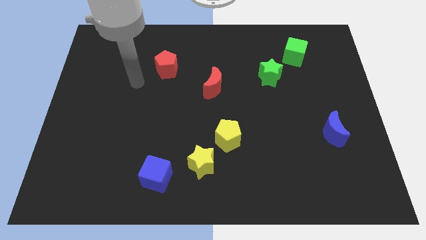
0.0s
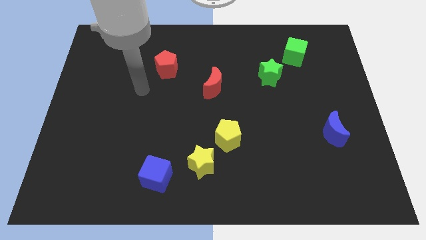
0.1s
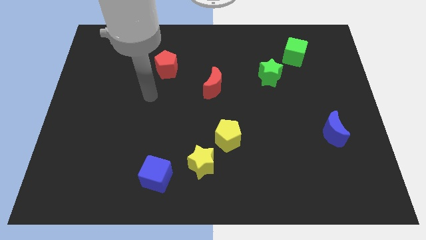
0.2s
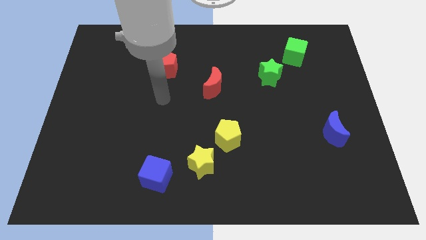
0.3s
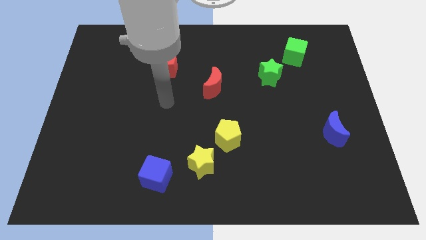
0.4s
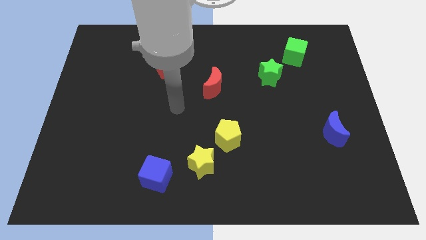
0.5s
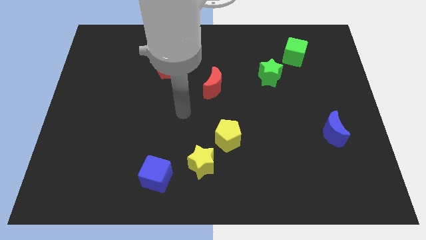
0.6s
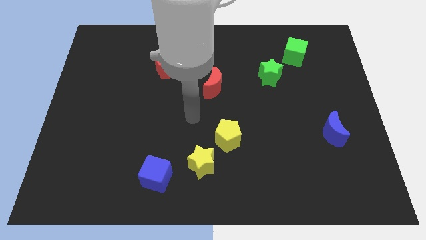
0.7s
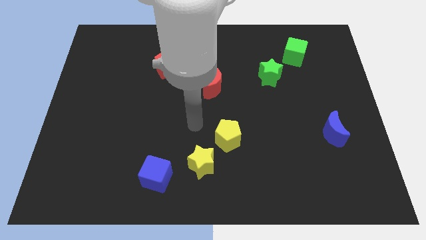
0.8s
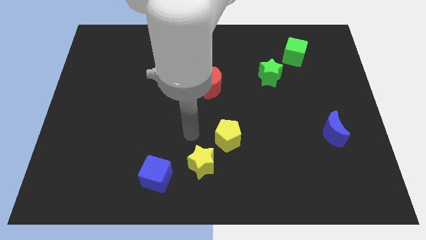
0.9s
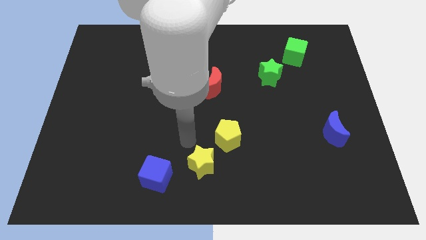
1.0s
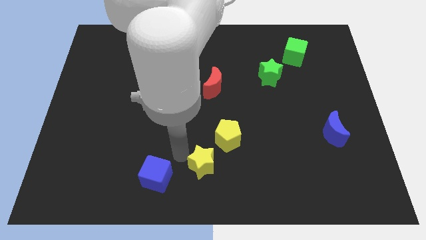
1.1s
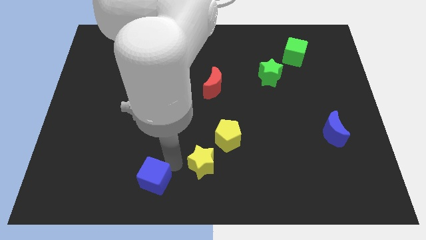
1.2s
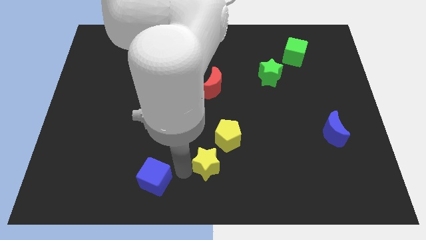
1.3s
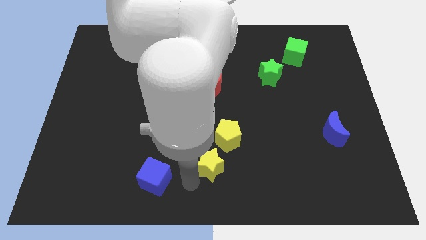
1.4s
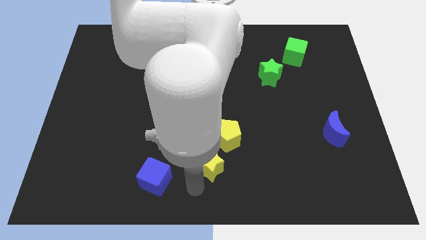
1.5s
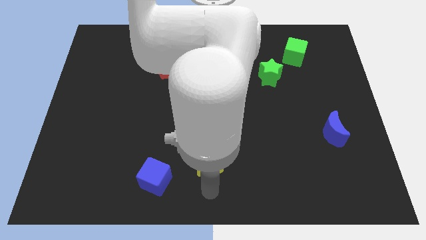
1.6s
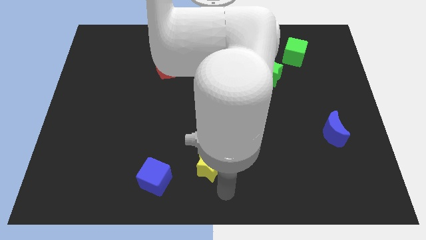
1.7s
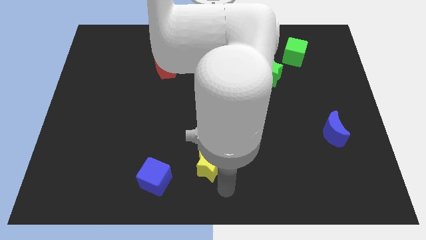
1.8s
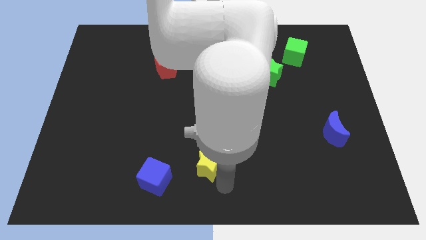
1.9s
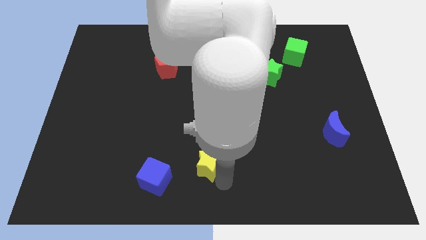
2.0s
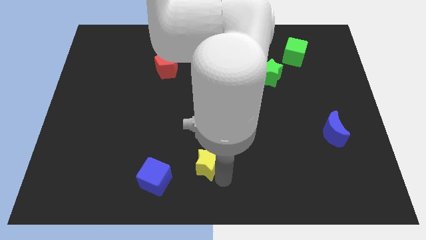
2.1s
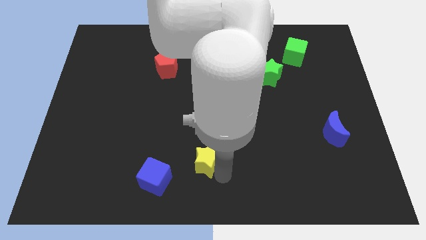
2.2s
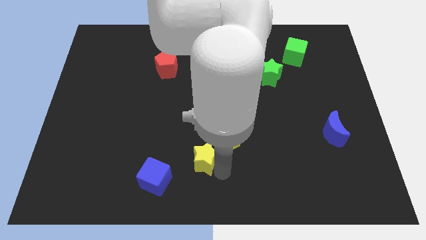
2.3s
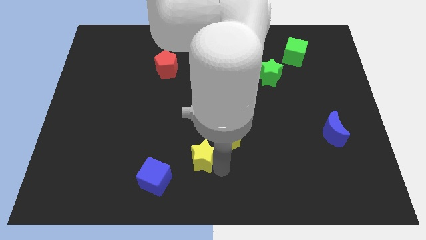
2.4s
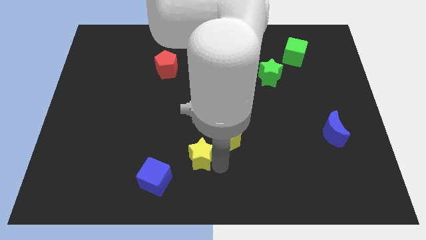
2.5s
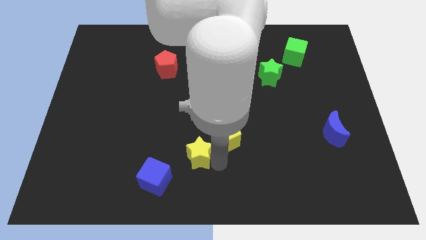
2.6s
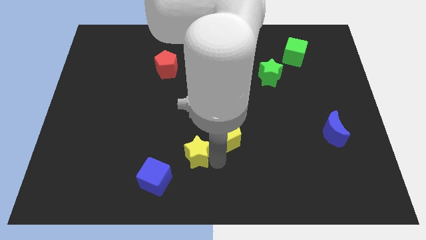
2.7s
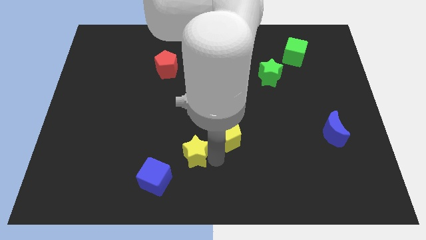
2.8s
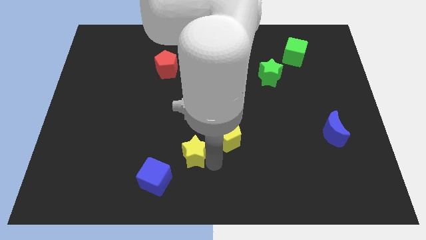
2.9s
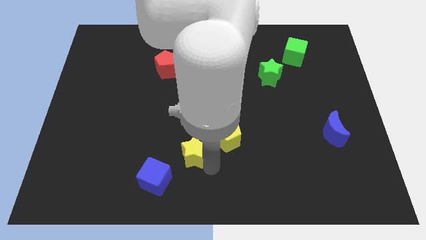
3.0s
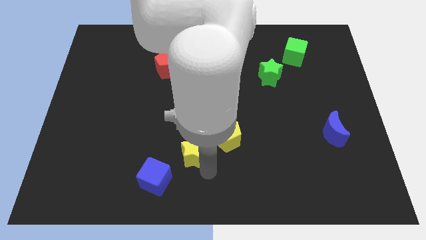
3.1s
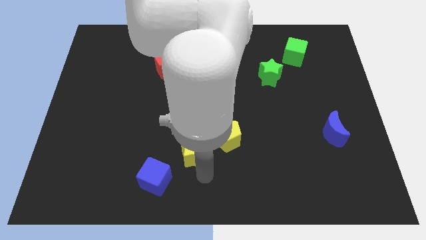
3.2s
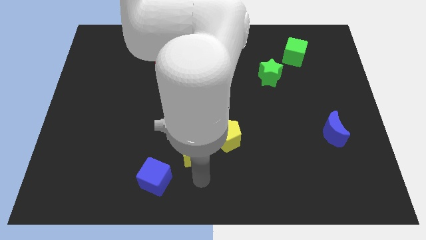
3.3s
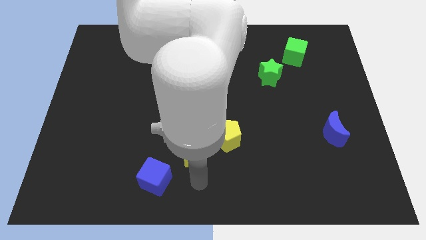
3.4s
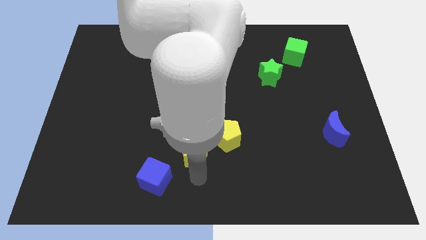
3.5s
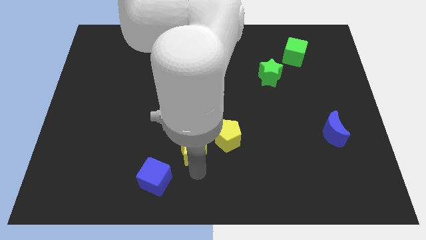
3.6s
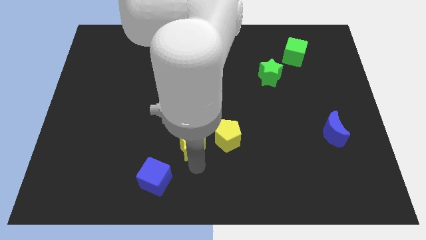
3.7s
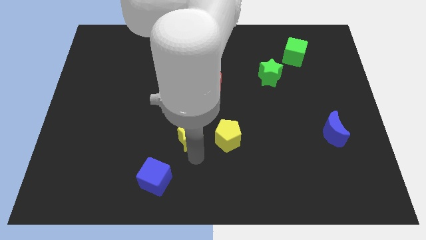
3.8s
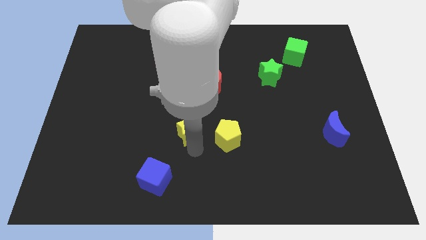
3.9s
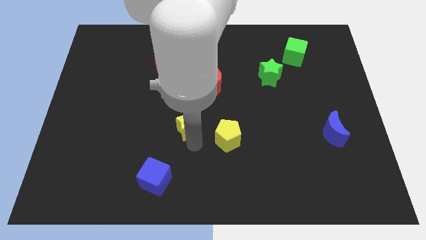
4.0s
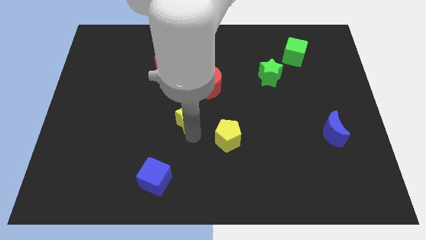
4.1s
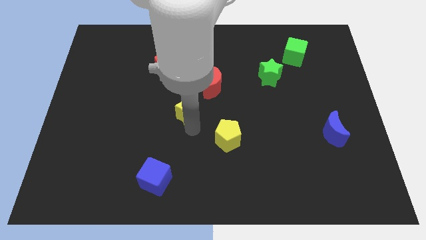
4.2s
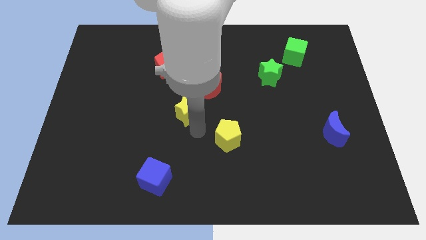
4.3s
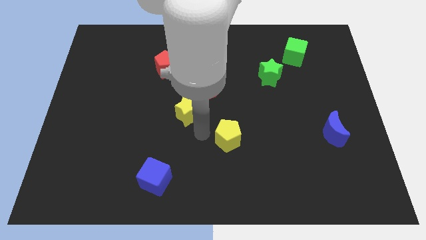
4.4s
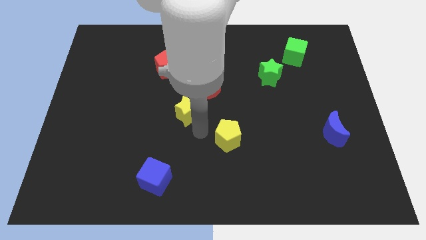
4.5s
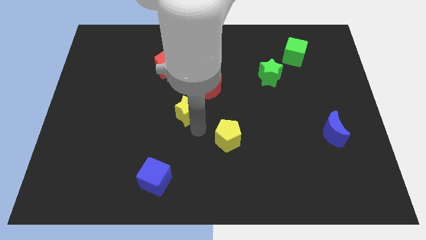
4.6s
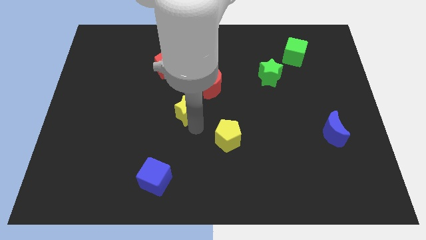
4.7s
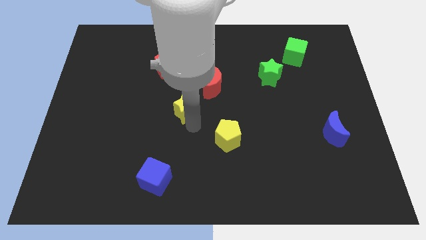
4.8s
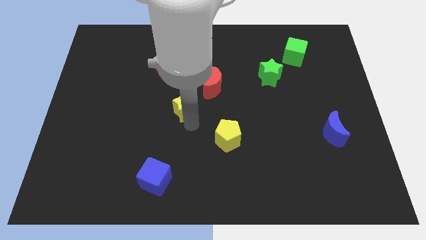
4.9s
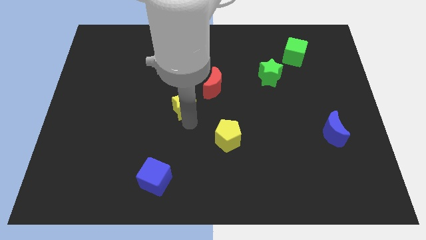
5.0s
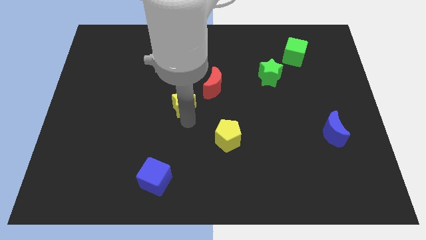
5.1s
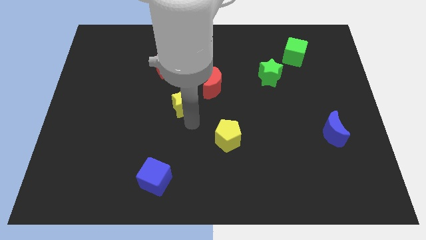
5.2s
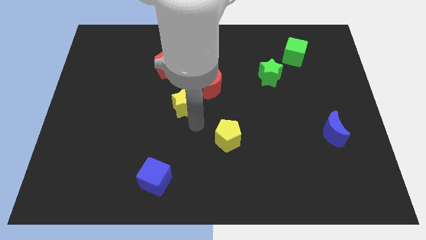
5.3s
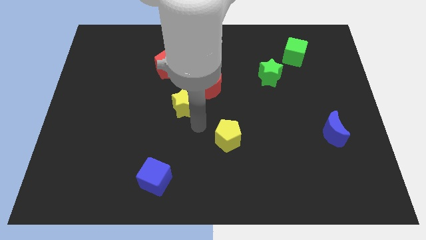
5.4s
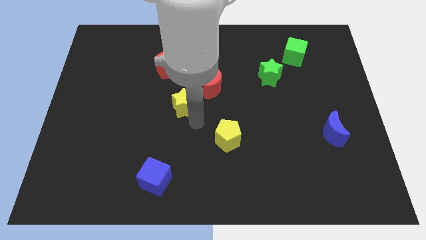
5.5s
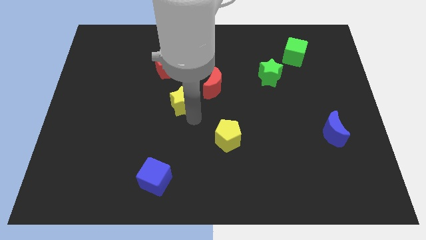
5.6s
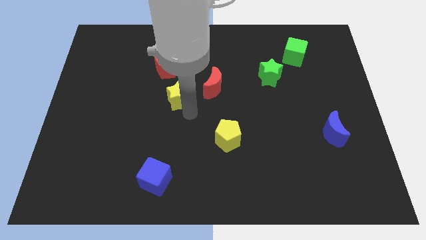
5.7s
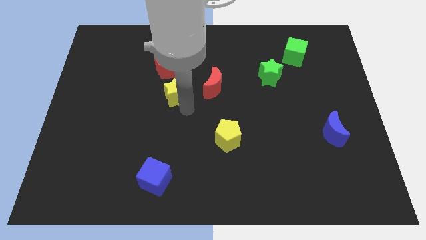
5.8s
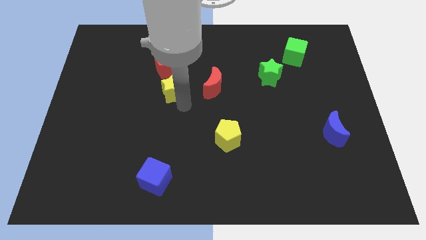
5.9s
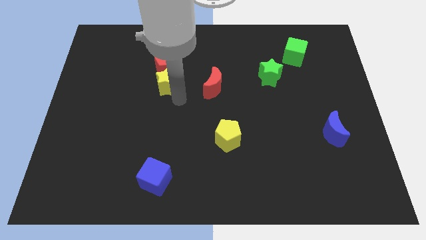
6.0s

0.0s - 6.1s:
move the yellow star next to the red pentagon
